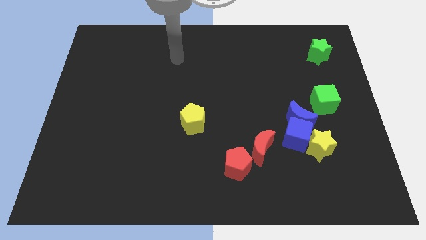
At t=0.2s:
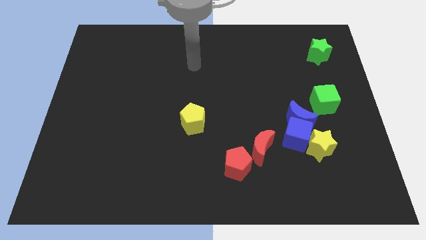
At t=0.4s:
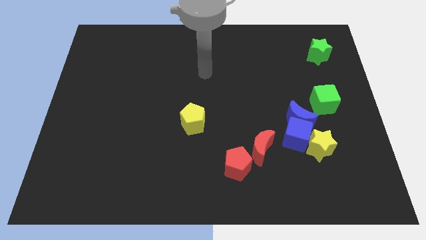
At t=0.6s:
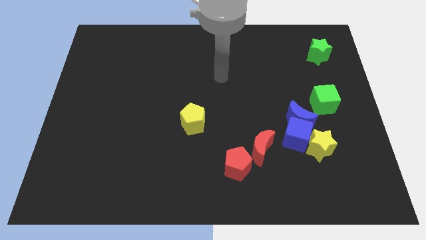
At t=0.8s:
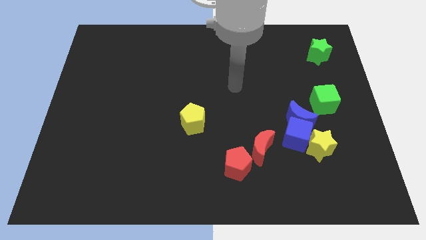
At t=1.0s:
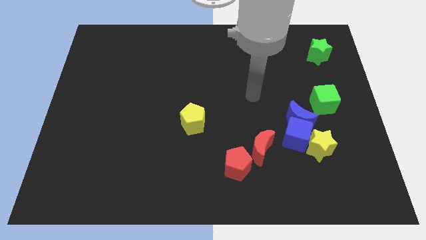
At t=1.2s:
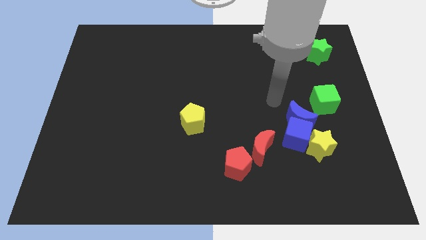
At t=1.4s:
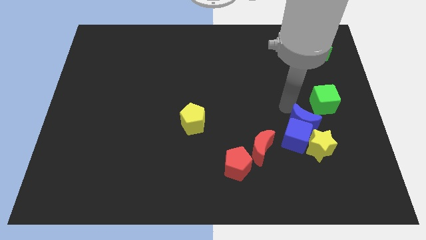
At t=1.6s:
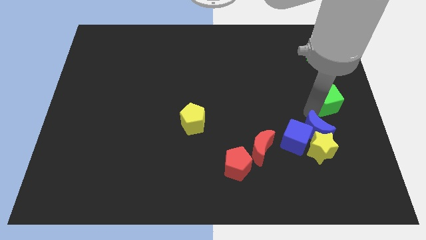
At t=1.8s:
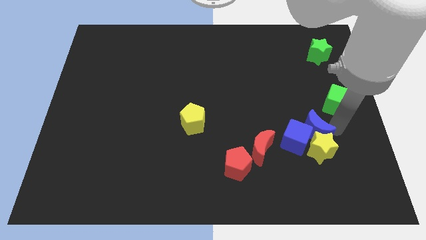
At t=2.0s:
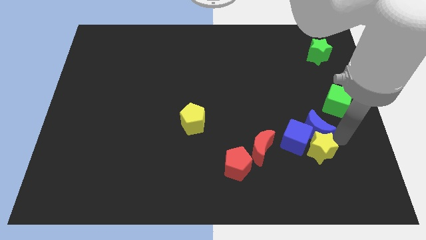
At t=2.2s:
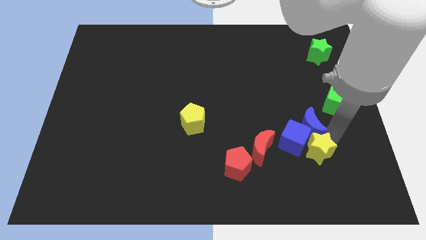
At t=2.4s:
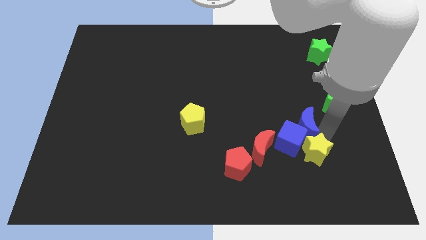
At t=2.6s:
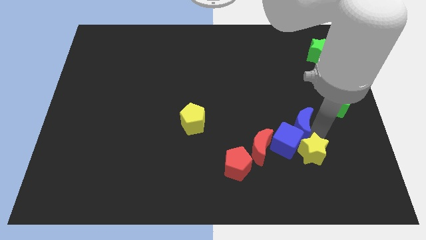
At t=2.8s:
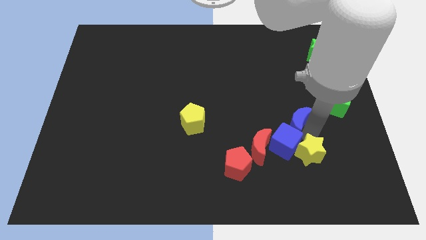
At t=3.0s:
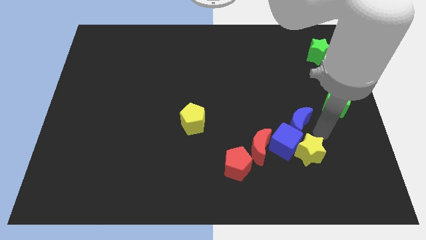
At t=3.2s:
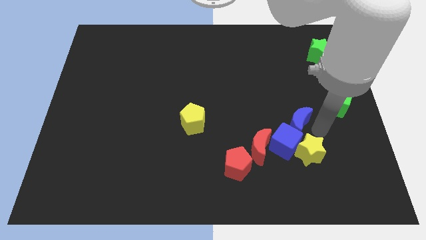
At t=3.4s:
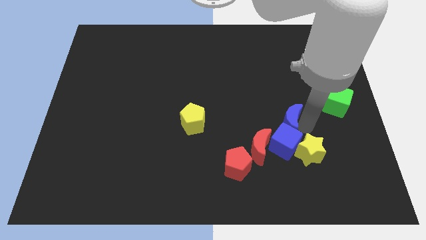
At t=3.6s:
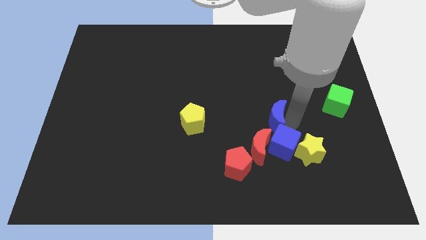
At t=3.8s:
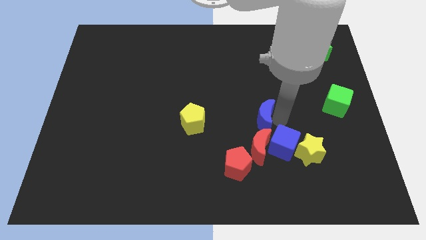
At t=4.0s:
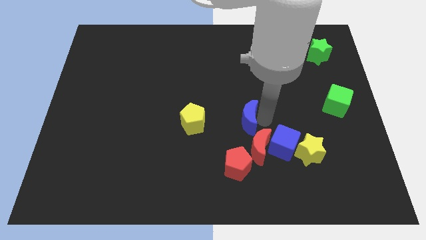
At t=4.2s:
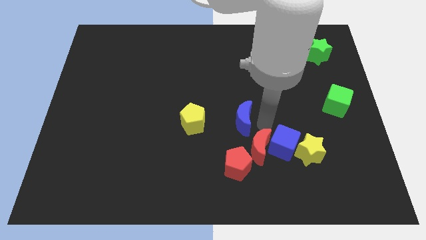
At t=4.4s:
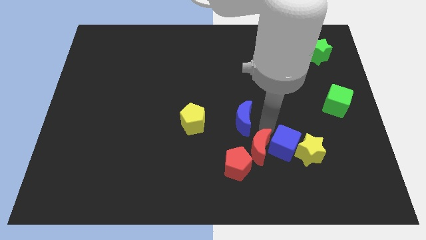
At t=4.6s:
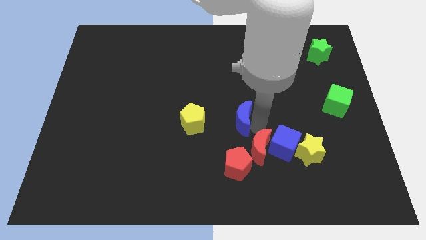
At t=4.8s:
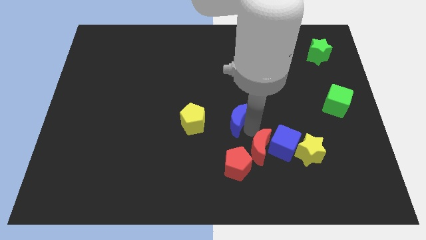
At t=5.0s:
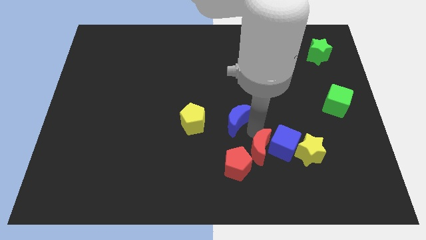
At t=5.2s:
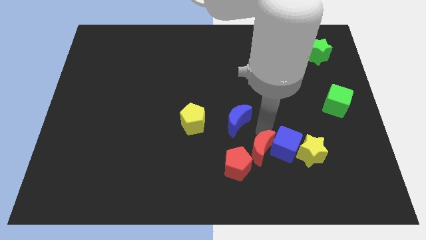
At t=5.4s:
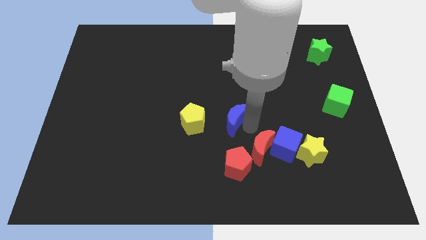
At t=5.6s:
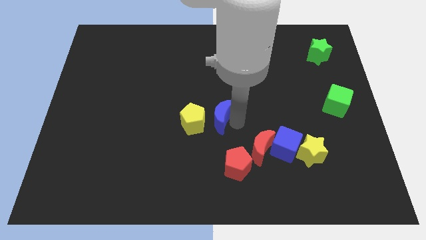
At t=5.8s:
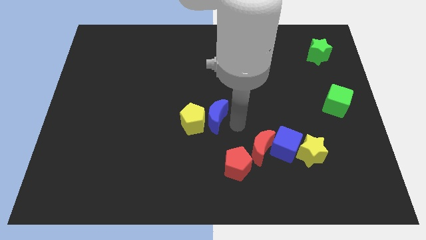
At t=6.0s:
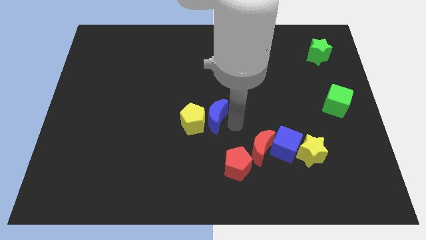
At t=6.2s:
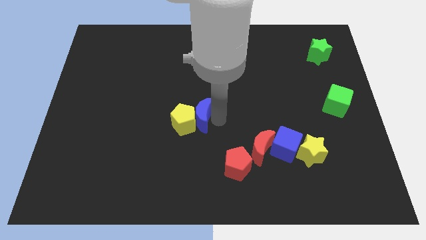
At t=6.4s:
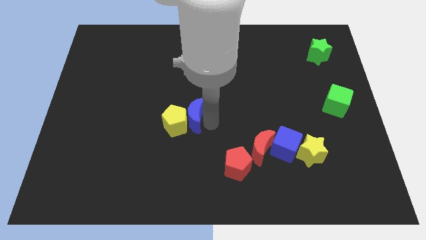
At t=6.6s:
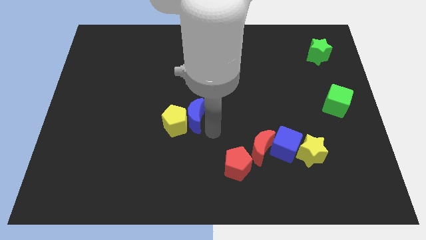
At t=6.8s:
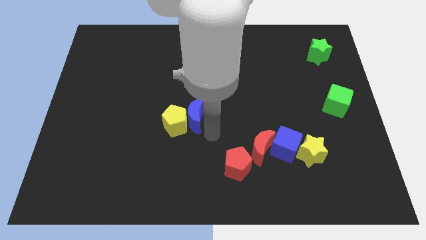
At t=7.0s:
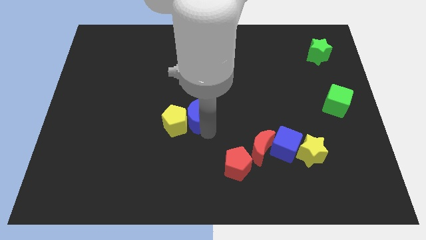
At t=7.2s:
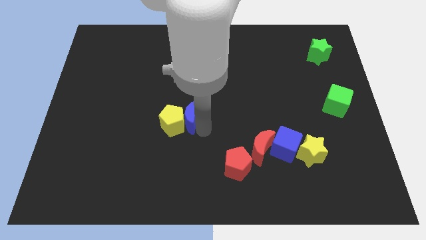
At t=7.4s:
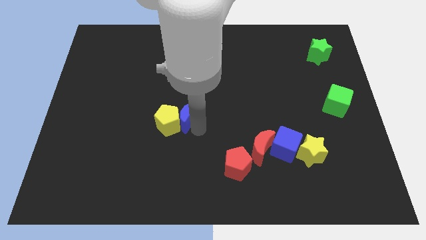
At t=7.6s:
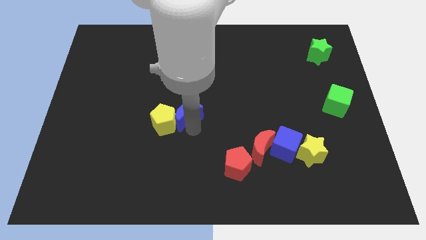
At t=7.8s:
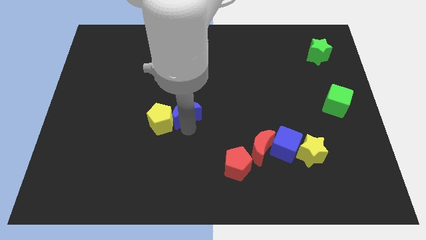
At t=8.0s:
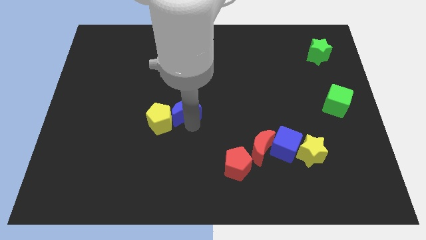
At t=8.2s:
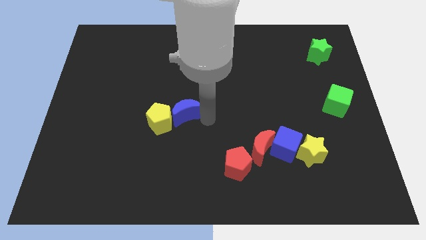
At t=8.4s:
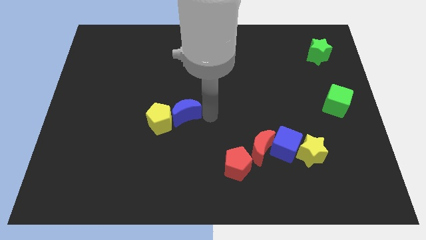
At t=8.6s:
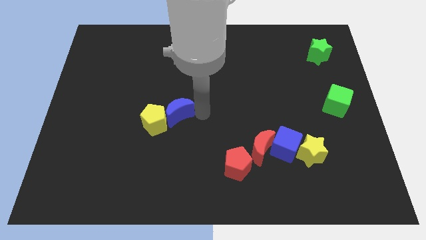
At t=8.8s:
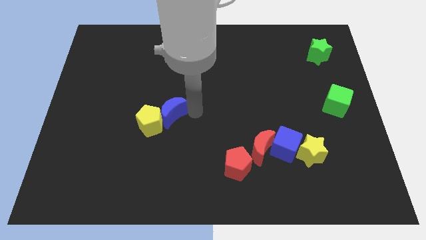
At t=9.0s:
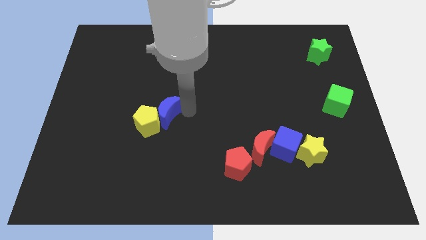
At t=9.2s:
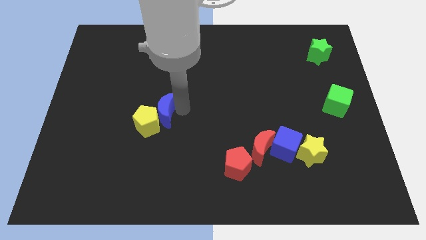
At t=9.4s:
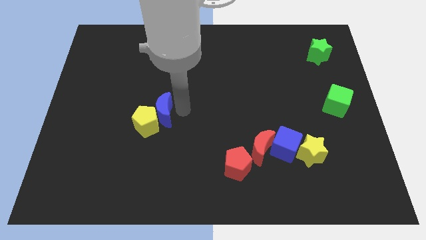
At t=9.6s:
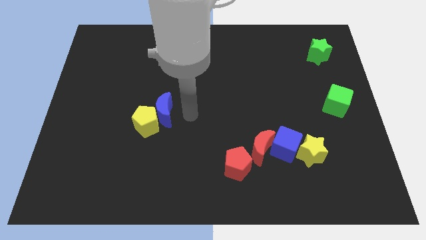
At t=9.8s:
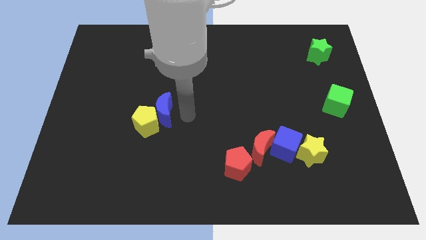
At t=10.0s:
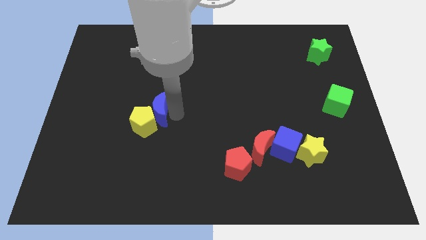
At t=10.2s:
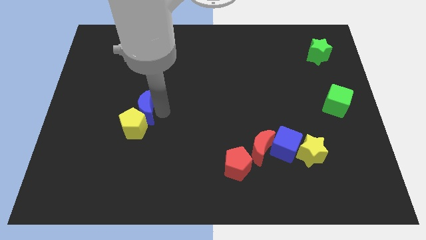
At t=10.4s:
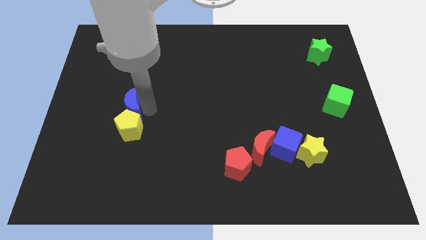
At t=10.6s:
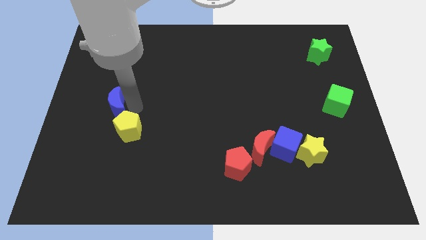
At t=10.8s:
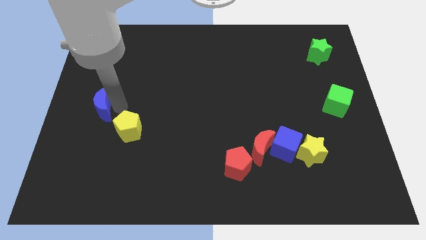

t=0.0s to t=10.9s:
put the blue moon to the left side of the board

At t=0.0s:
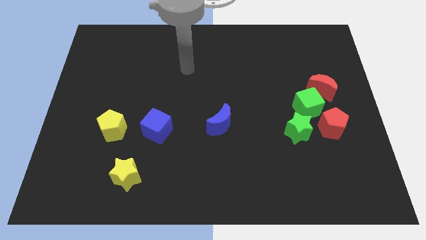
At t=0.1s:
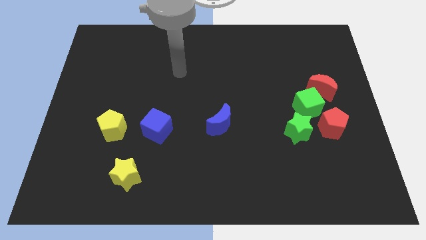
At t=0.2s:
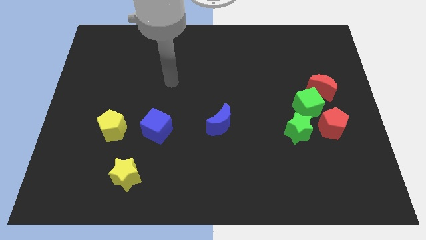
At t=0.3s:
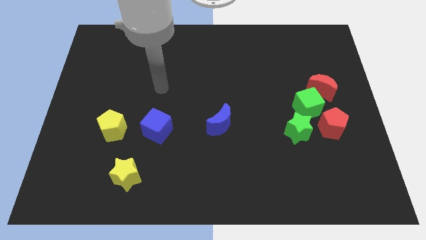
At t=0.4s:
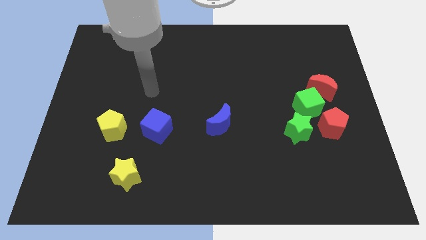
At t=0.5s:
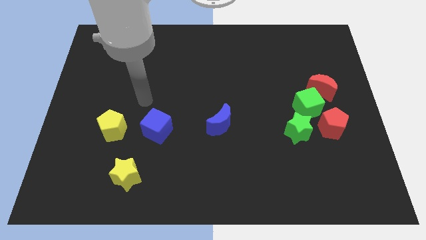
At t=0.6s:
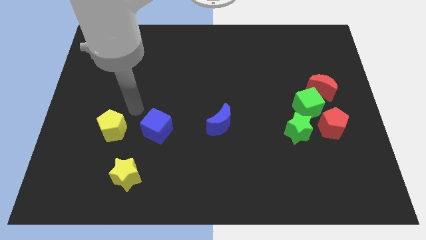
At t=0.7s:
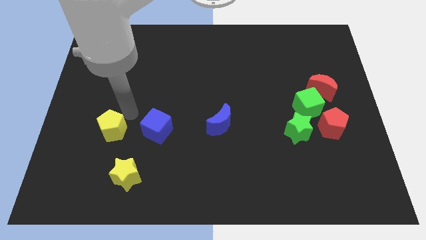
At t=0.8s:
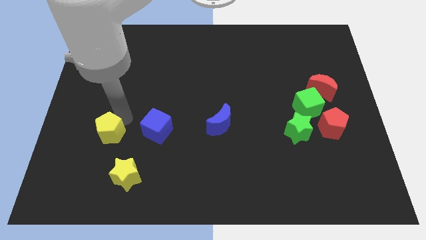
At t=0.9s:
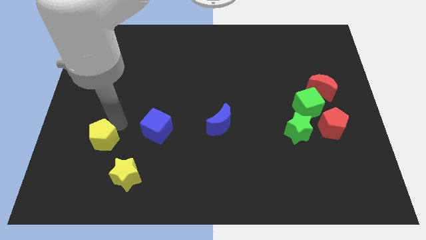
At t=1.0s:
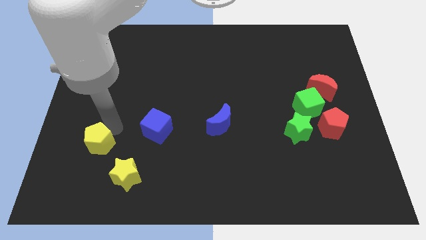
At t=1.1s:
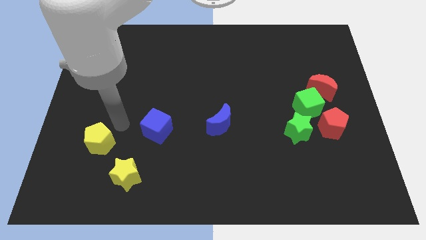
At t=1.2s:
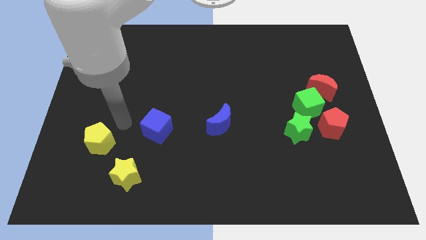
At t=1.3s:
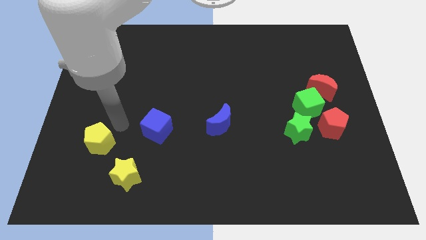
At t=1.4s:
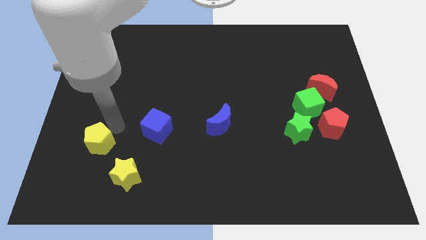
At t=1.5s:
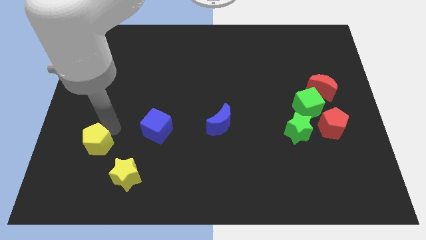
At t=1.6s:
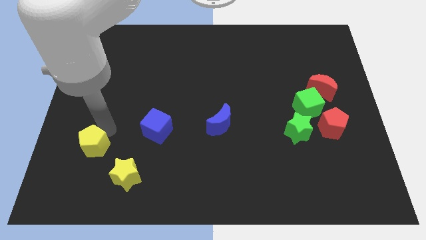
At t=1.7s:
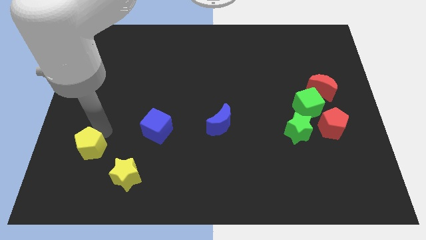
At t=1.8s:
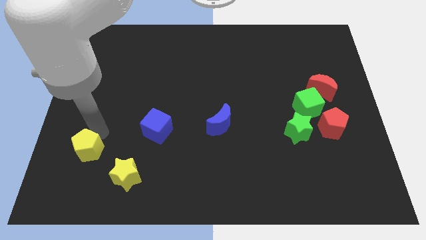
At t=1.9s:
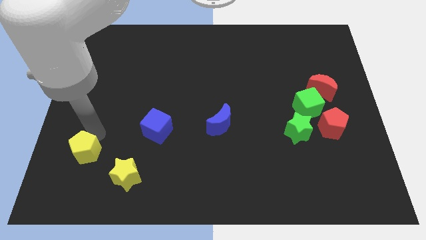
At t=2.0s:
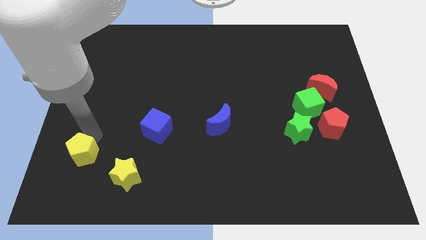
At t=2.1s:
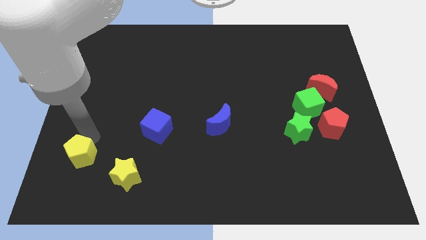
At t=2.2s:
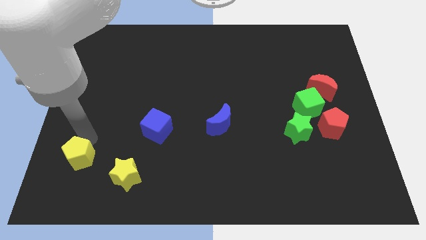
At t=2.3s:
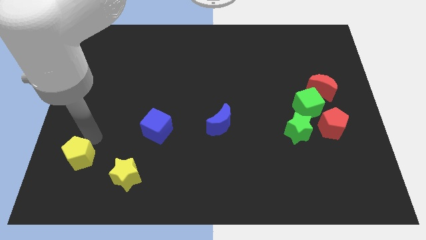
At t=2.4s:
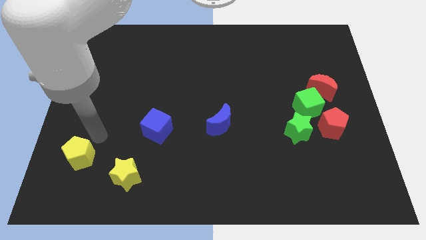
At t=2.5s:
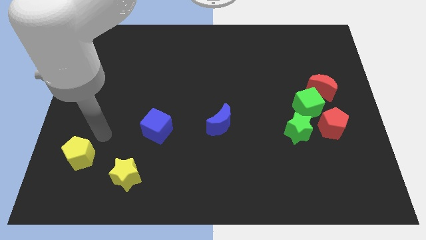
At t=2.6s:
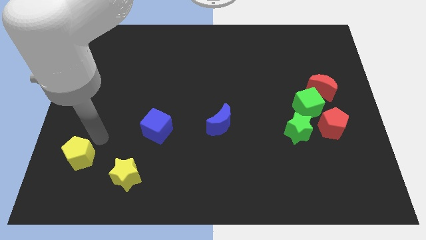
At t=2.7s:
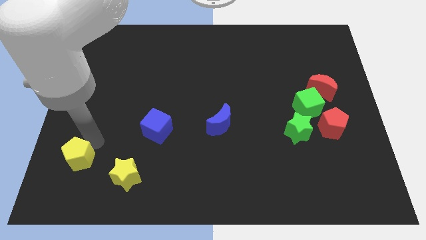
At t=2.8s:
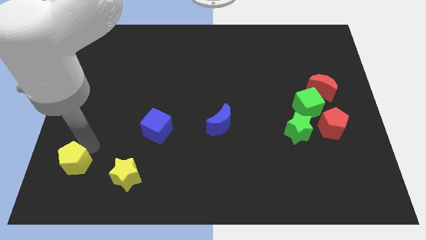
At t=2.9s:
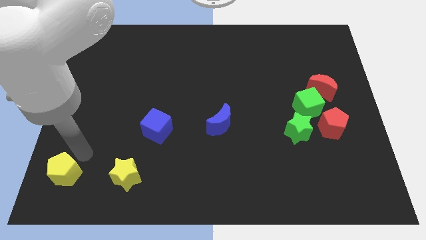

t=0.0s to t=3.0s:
push the yellow pentagon to the bottom left of the board
